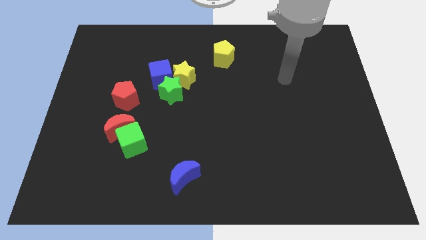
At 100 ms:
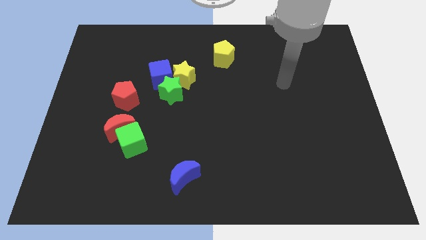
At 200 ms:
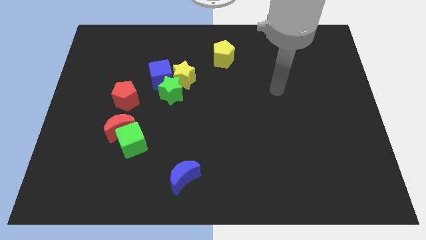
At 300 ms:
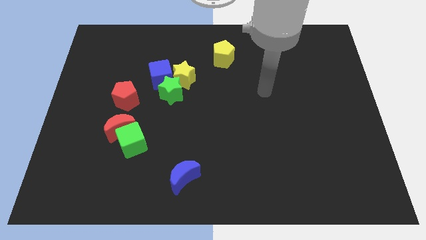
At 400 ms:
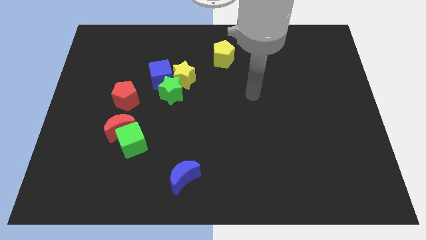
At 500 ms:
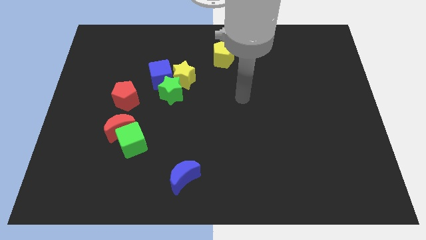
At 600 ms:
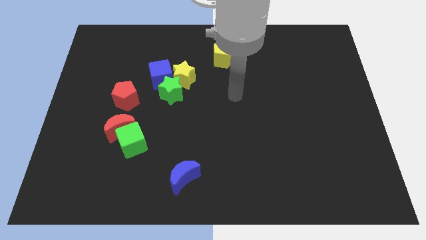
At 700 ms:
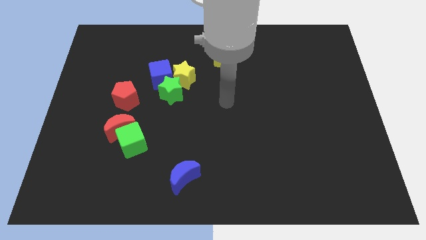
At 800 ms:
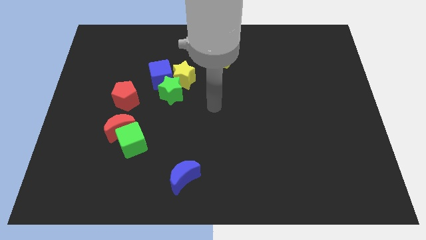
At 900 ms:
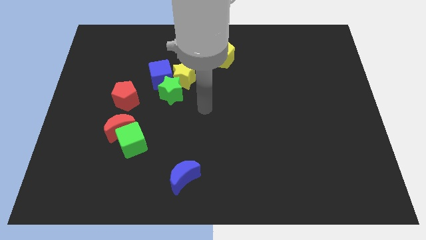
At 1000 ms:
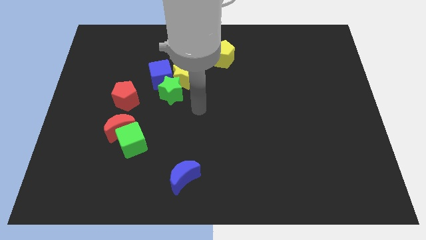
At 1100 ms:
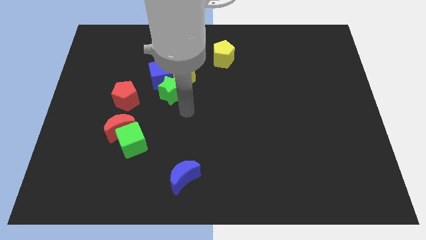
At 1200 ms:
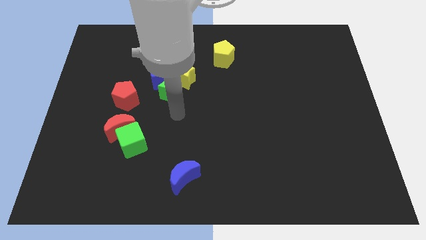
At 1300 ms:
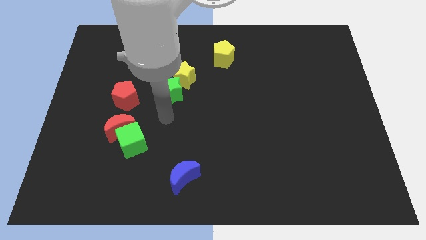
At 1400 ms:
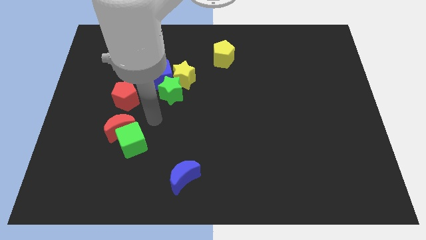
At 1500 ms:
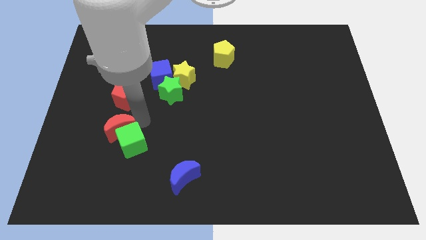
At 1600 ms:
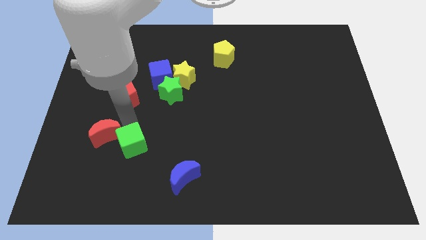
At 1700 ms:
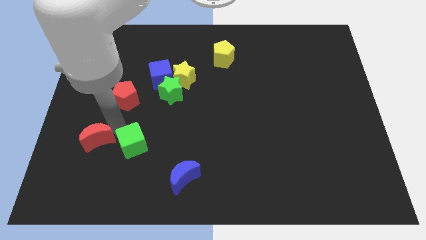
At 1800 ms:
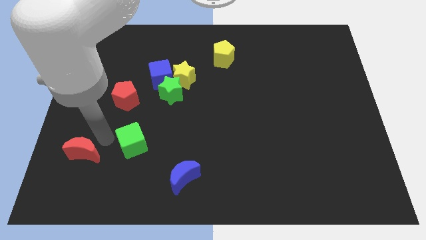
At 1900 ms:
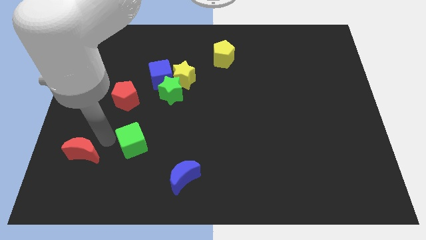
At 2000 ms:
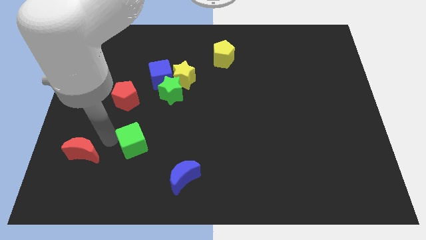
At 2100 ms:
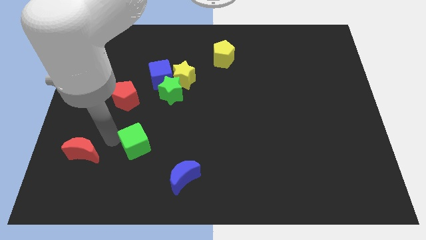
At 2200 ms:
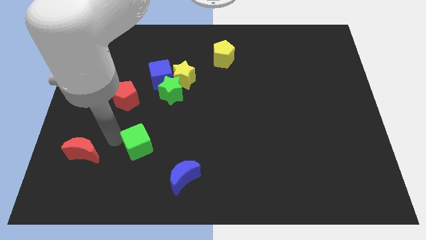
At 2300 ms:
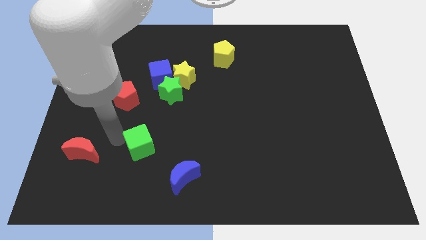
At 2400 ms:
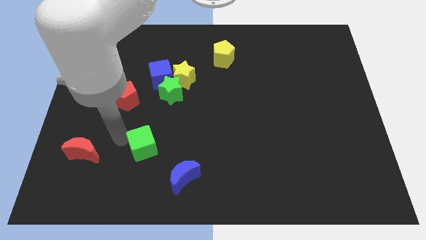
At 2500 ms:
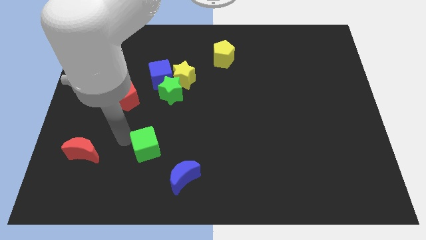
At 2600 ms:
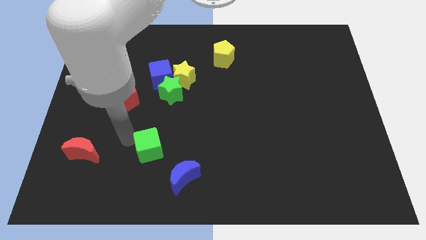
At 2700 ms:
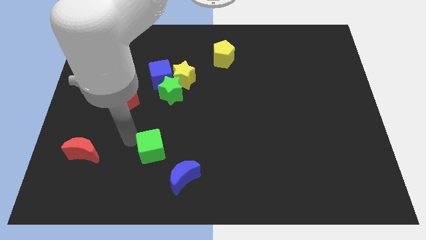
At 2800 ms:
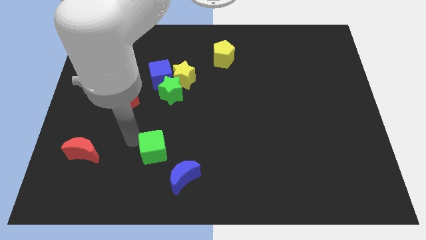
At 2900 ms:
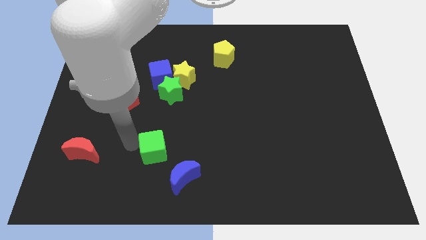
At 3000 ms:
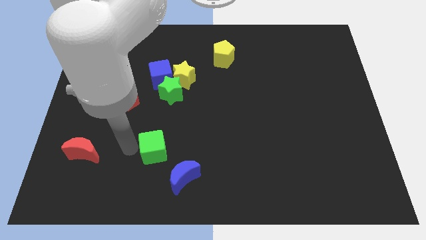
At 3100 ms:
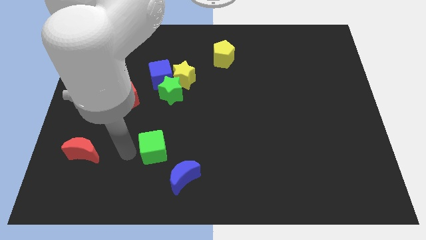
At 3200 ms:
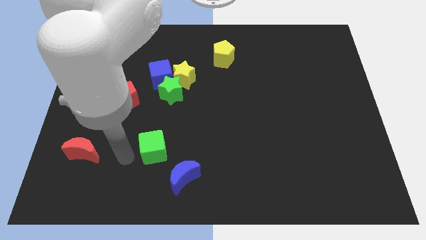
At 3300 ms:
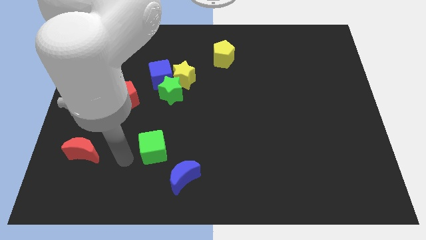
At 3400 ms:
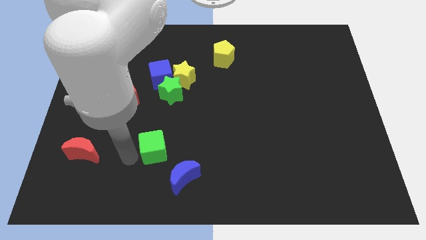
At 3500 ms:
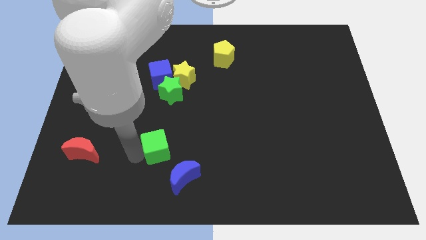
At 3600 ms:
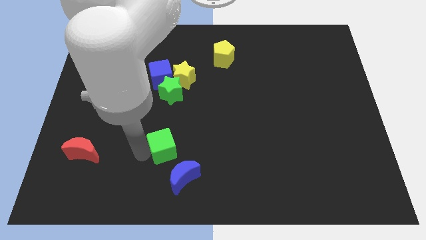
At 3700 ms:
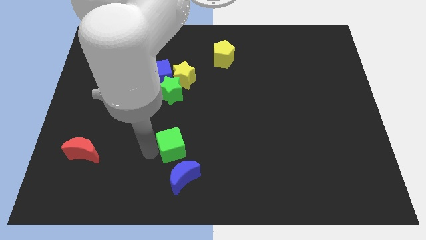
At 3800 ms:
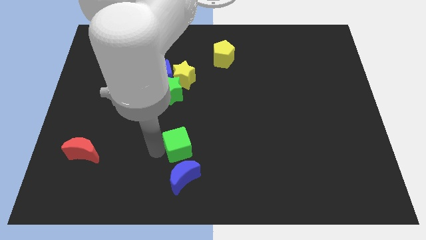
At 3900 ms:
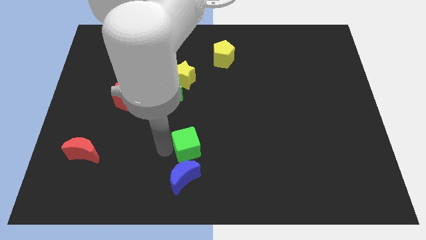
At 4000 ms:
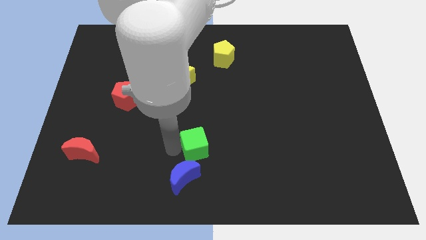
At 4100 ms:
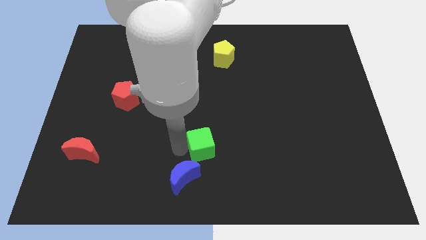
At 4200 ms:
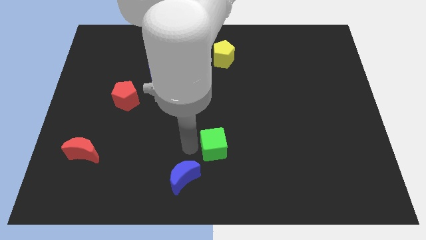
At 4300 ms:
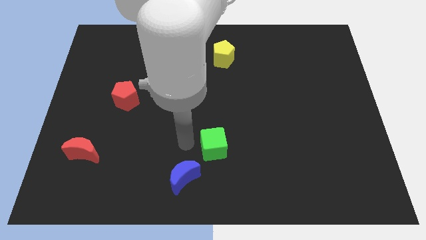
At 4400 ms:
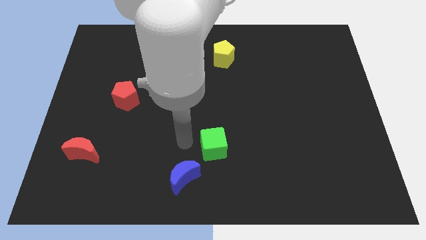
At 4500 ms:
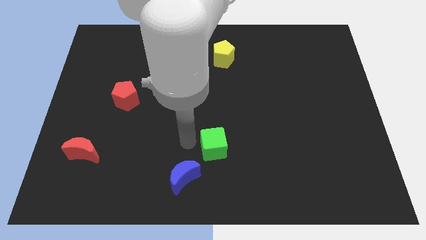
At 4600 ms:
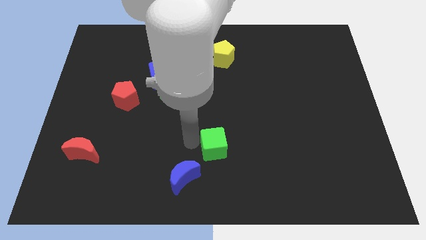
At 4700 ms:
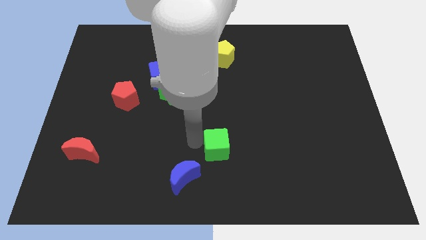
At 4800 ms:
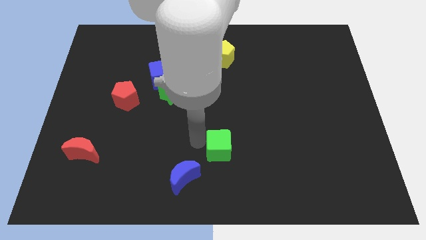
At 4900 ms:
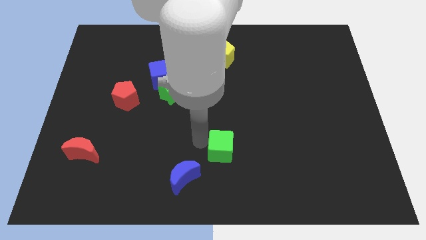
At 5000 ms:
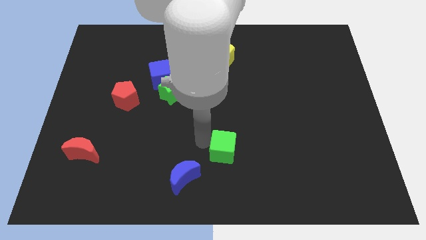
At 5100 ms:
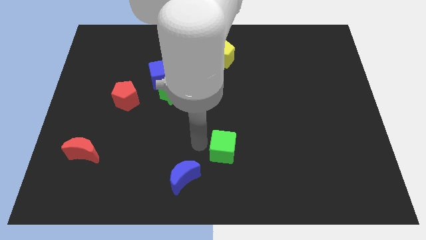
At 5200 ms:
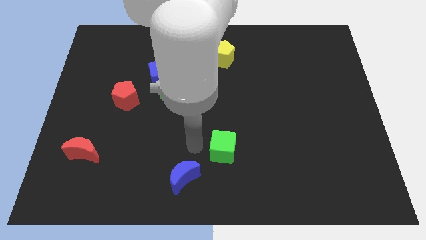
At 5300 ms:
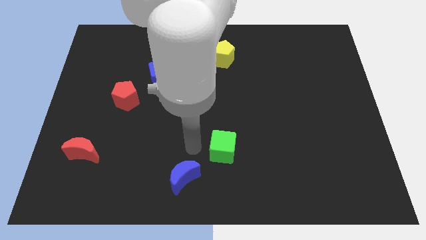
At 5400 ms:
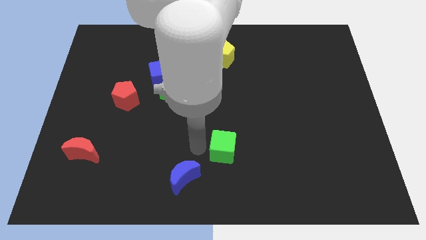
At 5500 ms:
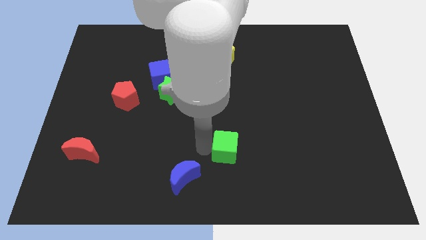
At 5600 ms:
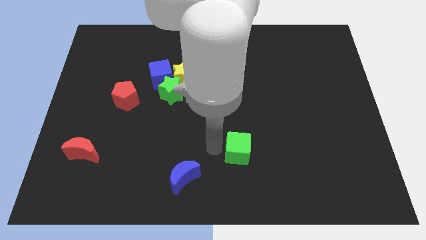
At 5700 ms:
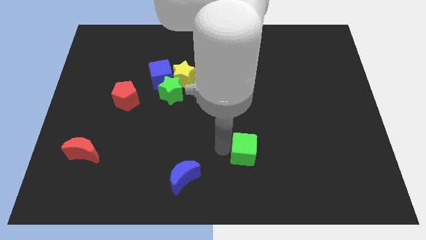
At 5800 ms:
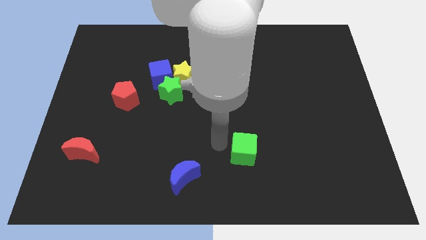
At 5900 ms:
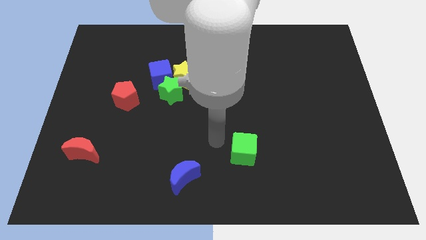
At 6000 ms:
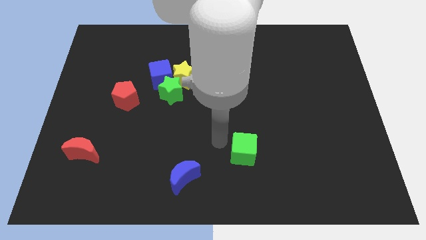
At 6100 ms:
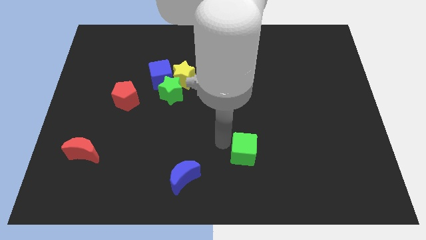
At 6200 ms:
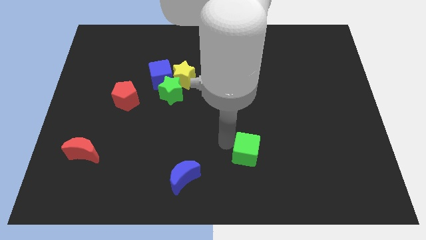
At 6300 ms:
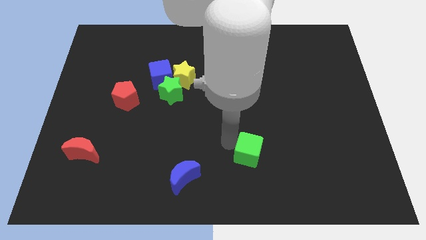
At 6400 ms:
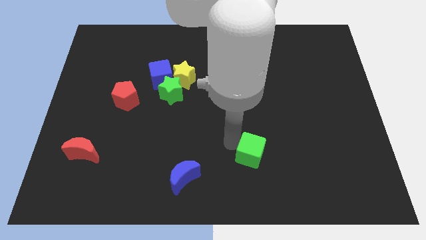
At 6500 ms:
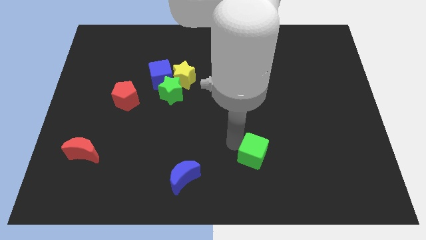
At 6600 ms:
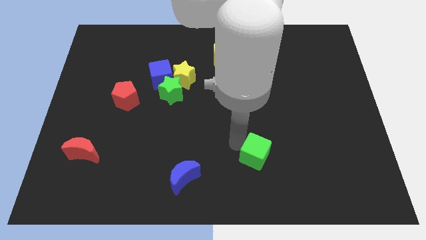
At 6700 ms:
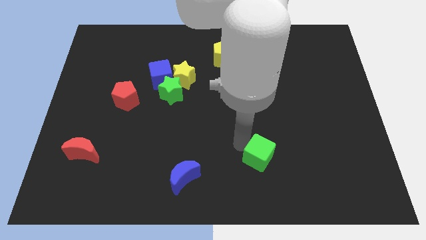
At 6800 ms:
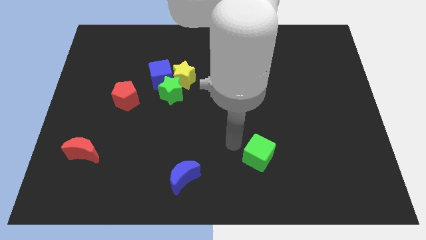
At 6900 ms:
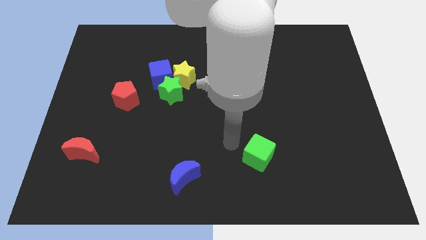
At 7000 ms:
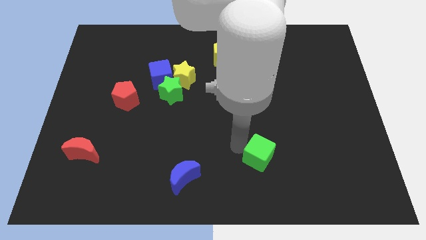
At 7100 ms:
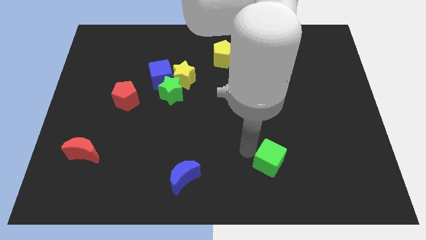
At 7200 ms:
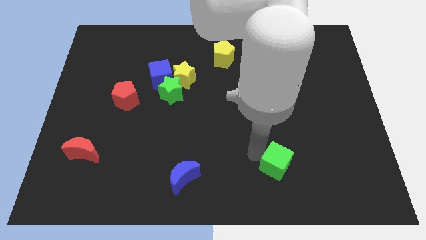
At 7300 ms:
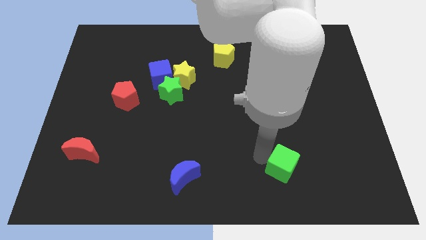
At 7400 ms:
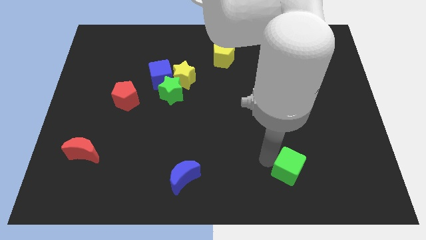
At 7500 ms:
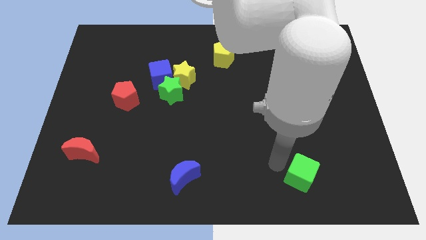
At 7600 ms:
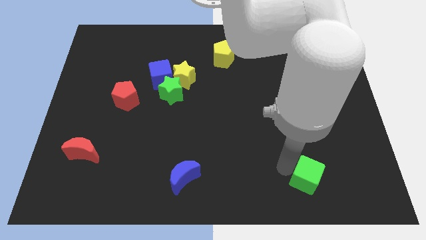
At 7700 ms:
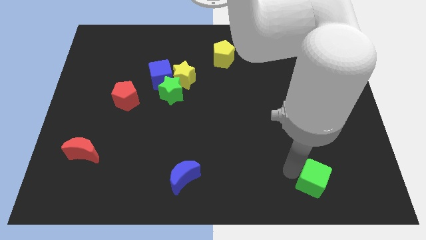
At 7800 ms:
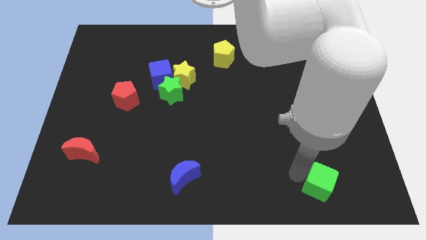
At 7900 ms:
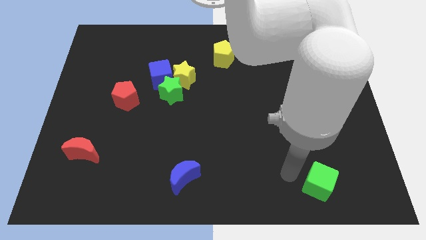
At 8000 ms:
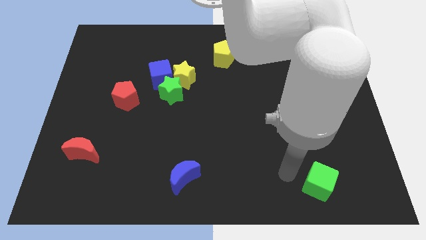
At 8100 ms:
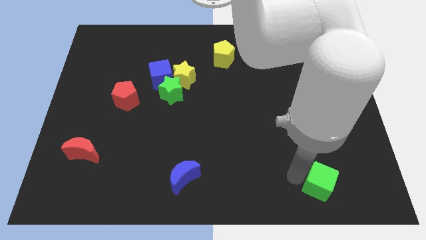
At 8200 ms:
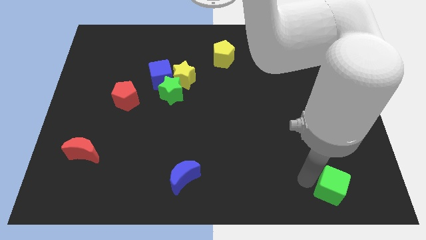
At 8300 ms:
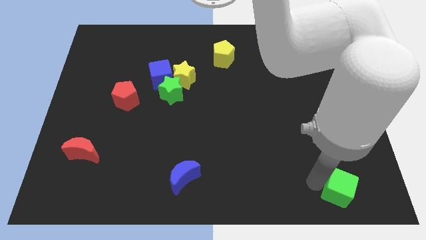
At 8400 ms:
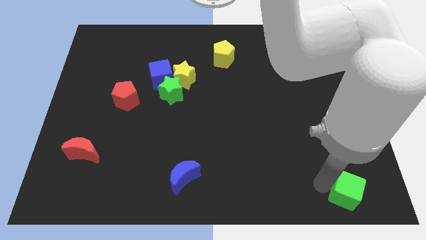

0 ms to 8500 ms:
slide the green cube to the bottom right corner
